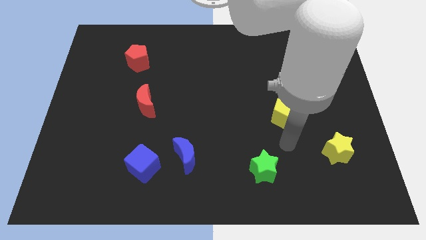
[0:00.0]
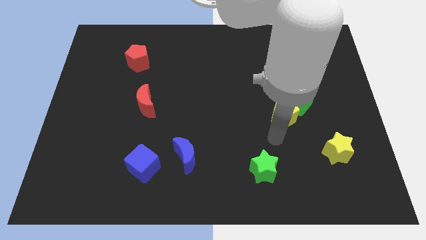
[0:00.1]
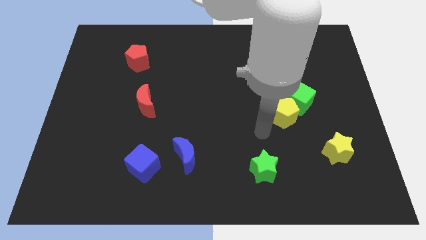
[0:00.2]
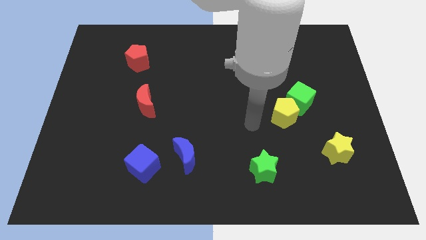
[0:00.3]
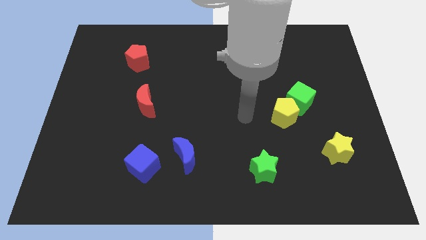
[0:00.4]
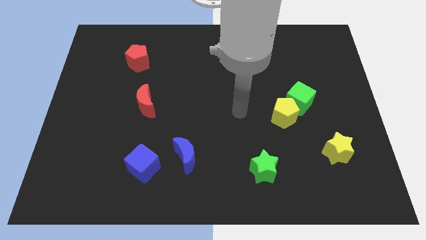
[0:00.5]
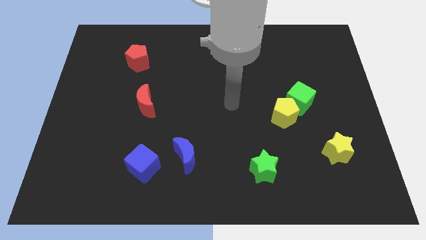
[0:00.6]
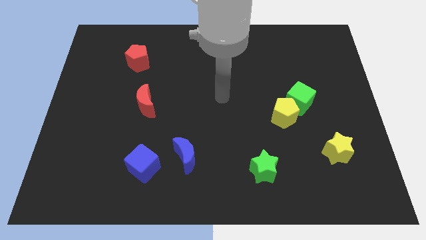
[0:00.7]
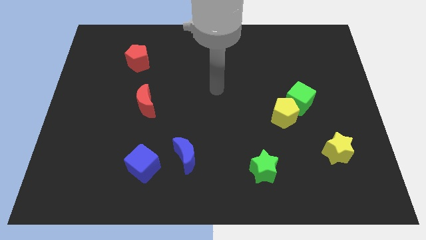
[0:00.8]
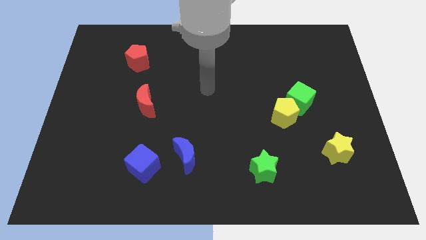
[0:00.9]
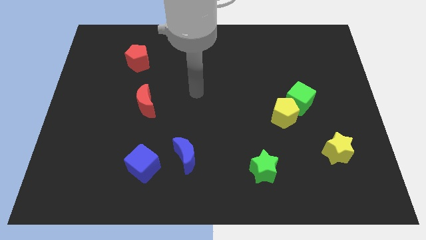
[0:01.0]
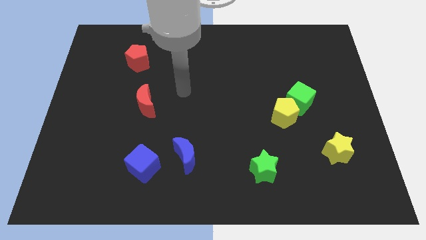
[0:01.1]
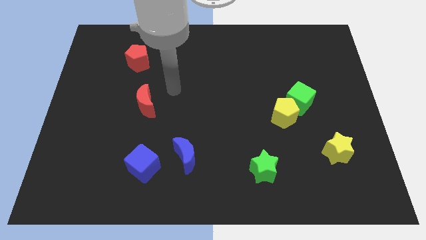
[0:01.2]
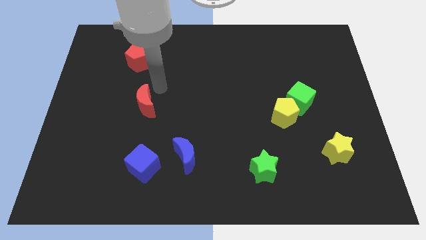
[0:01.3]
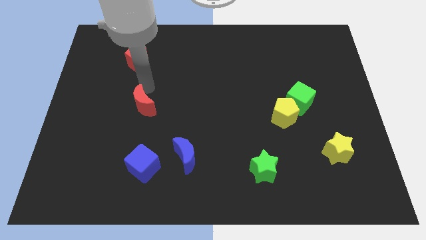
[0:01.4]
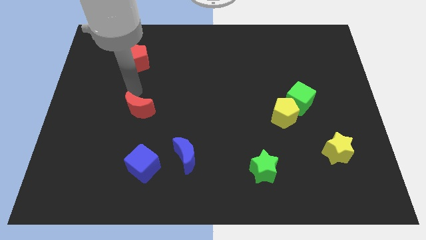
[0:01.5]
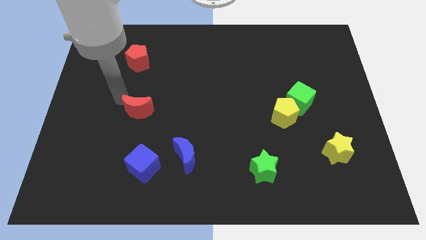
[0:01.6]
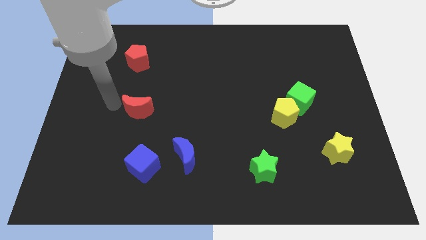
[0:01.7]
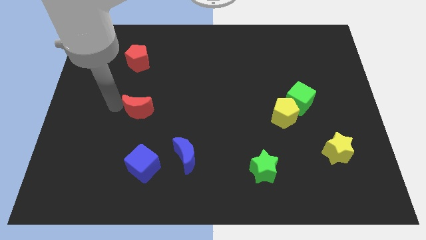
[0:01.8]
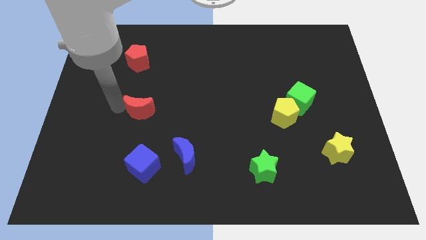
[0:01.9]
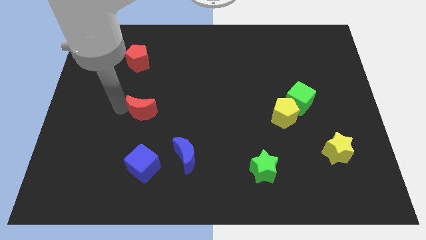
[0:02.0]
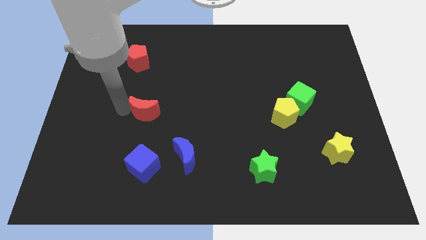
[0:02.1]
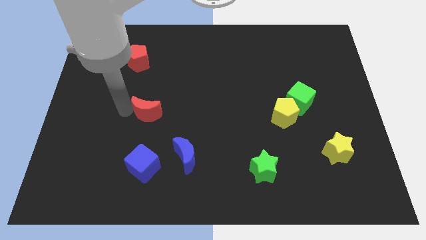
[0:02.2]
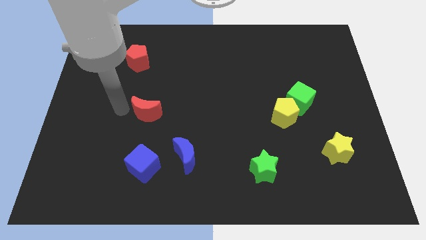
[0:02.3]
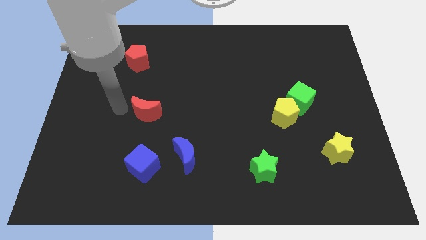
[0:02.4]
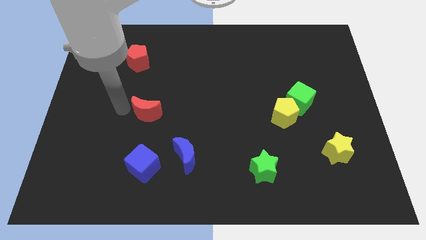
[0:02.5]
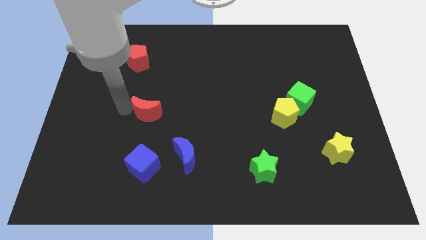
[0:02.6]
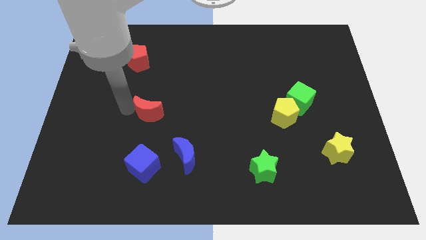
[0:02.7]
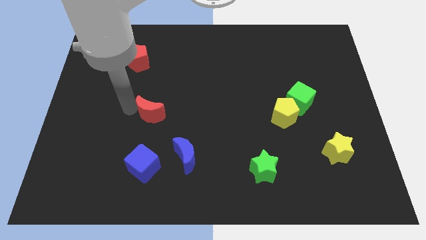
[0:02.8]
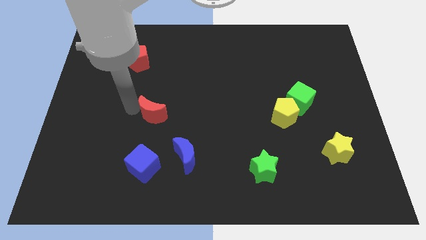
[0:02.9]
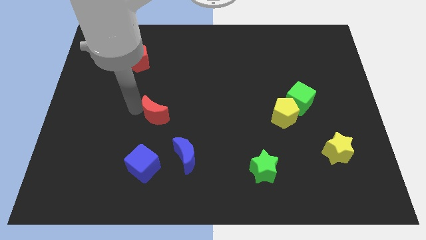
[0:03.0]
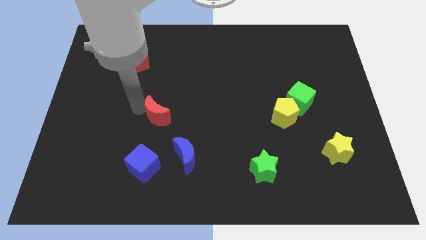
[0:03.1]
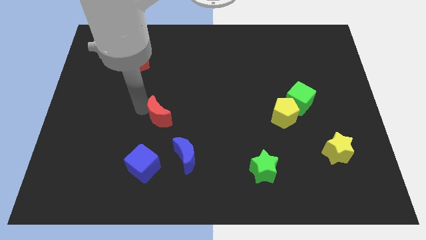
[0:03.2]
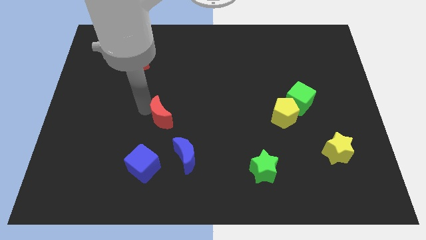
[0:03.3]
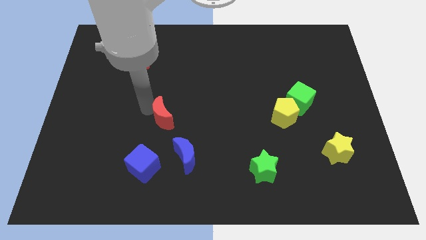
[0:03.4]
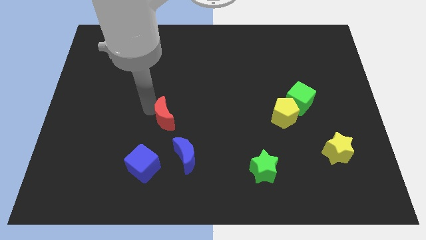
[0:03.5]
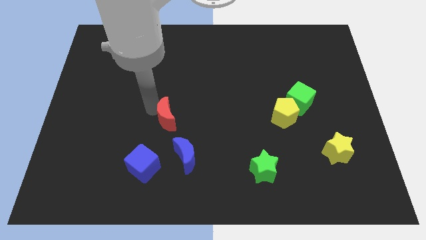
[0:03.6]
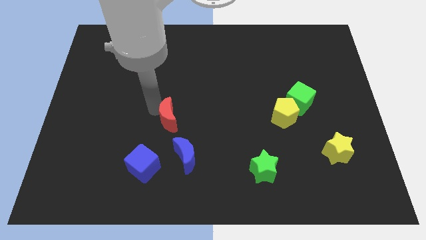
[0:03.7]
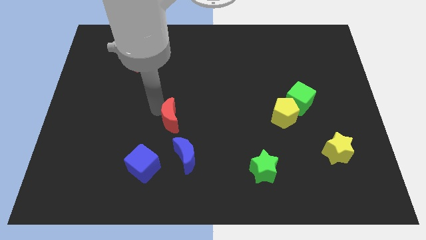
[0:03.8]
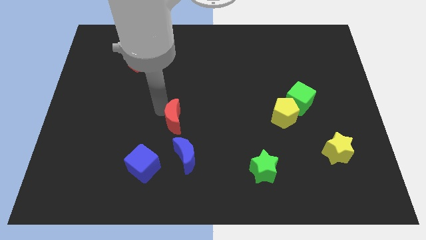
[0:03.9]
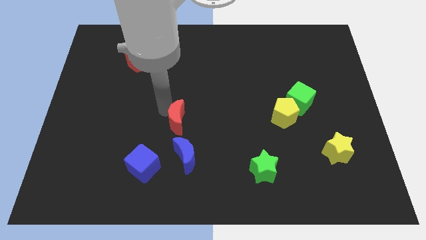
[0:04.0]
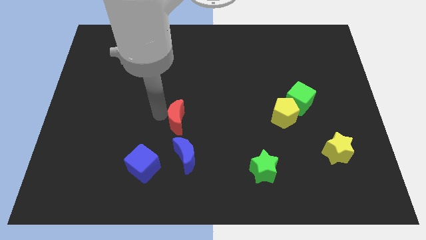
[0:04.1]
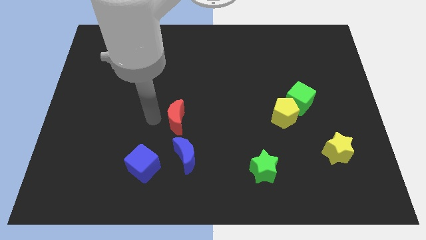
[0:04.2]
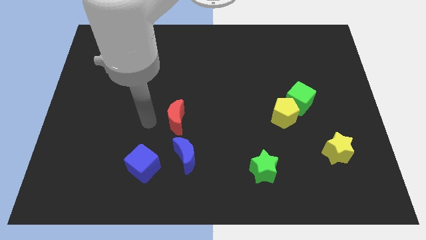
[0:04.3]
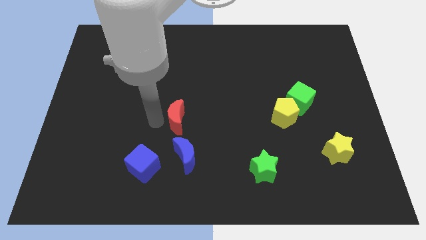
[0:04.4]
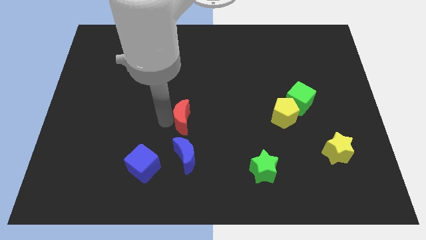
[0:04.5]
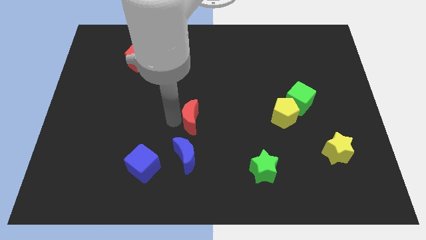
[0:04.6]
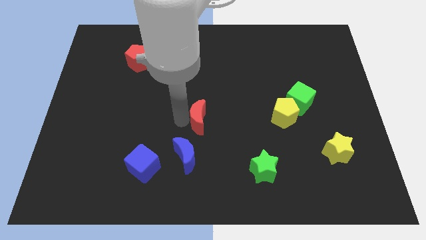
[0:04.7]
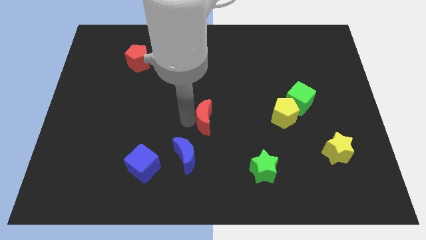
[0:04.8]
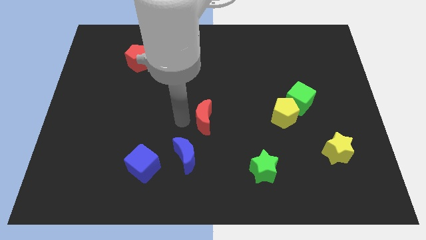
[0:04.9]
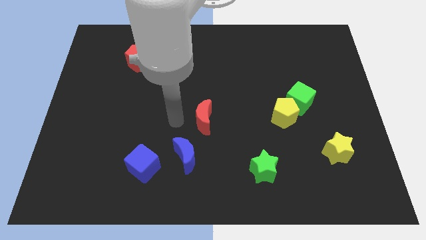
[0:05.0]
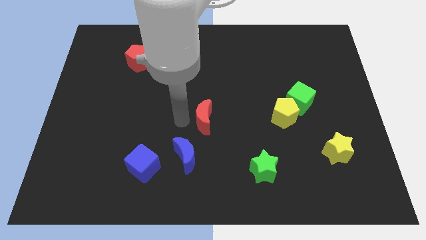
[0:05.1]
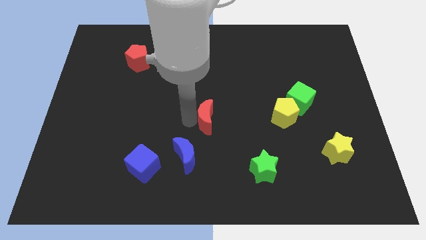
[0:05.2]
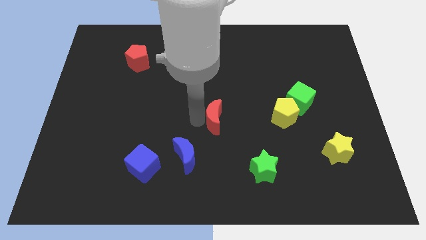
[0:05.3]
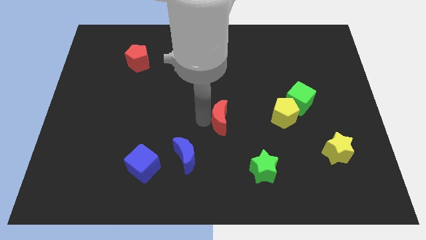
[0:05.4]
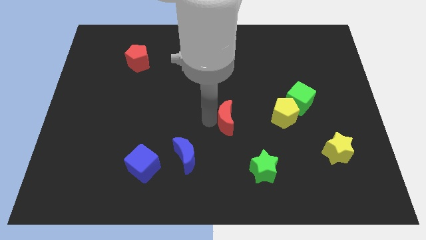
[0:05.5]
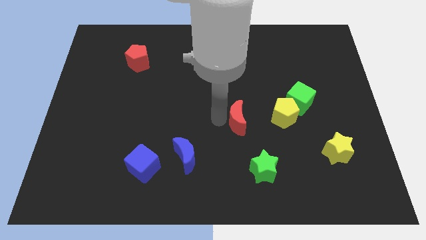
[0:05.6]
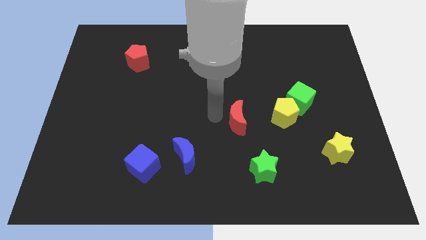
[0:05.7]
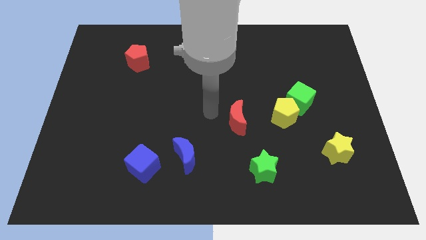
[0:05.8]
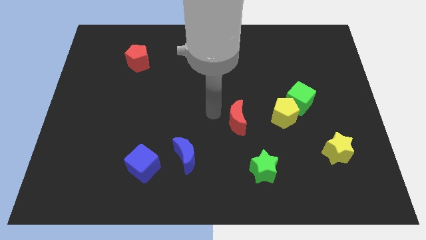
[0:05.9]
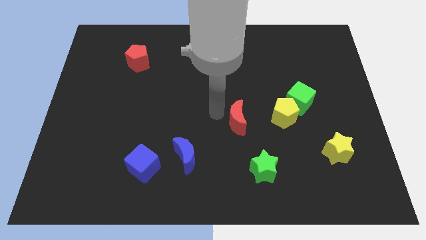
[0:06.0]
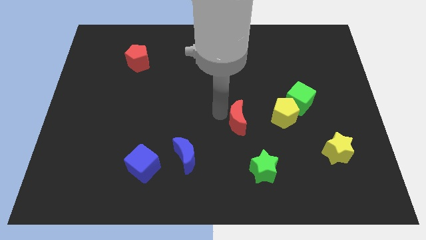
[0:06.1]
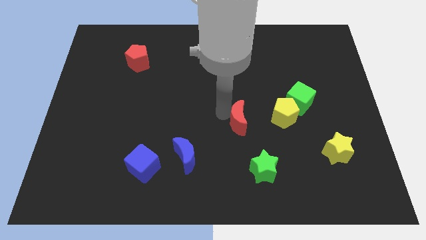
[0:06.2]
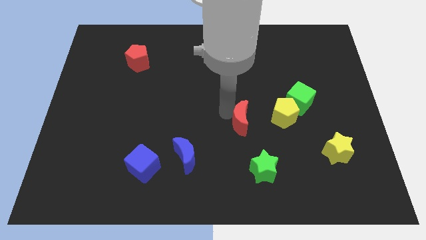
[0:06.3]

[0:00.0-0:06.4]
move the red moon to the top side of the green star

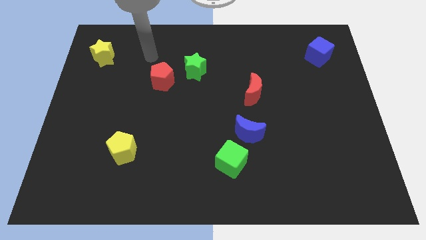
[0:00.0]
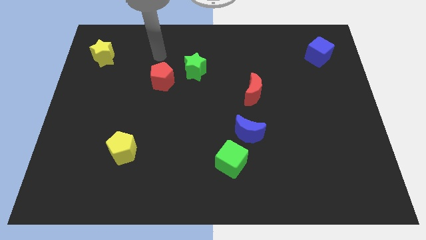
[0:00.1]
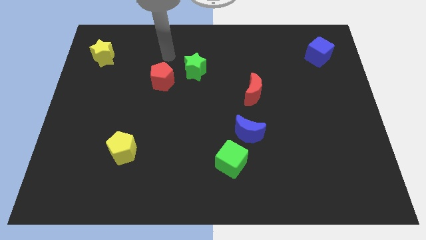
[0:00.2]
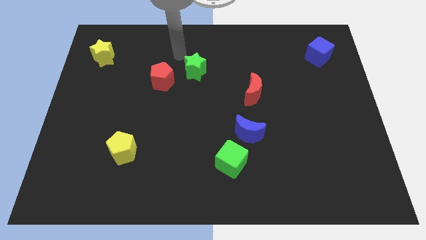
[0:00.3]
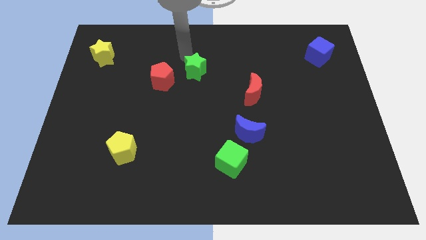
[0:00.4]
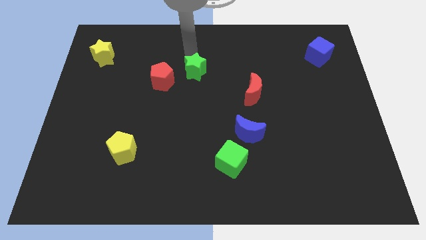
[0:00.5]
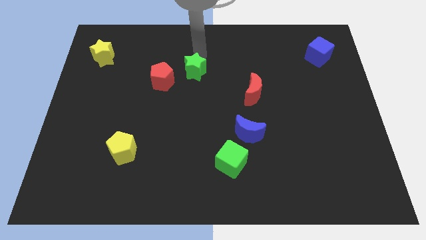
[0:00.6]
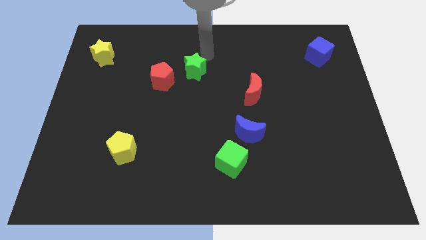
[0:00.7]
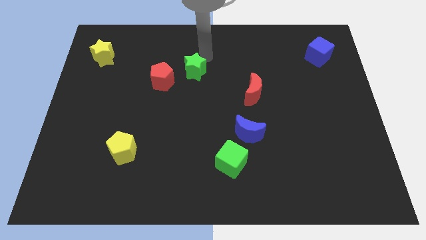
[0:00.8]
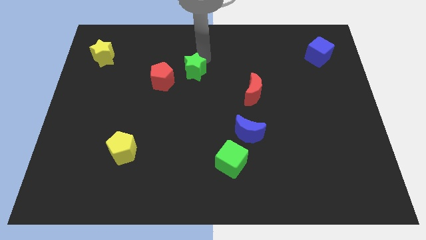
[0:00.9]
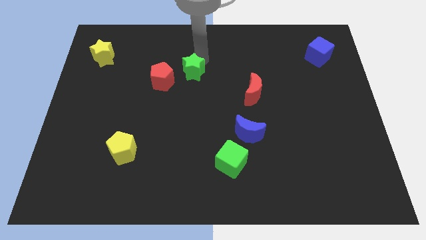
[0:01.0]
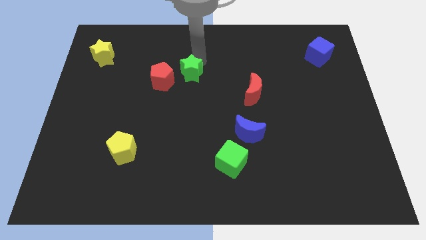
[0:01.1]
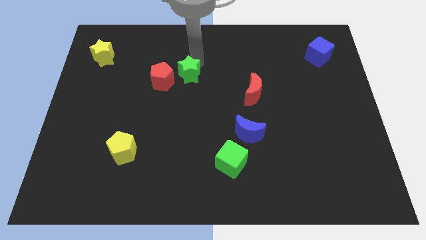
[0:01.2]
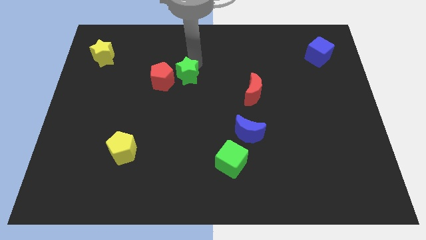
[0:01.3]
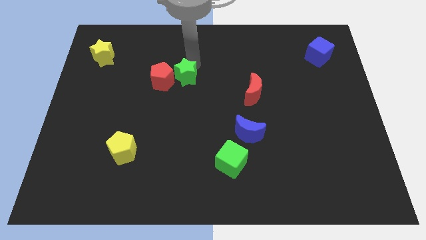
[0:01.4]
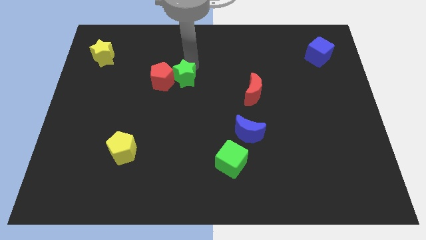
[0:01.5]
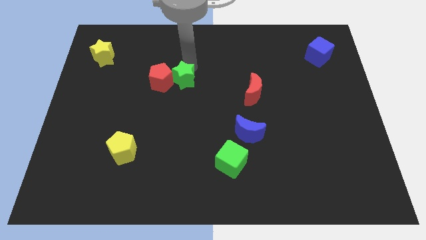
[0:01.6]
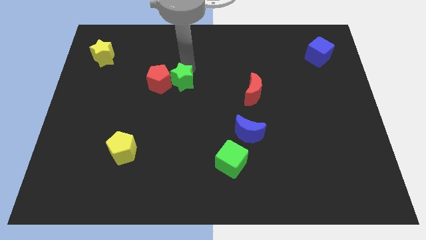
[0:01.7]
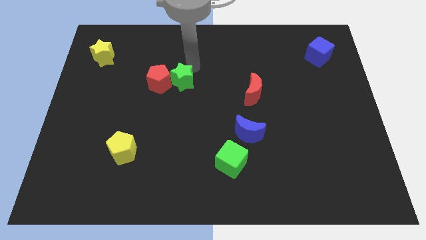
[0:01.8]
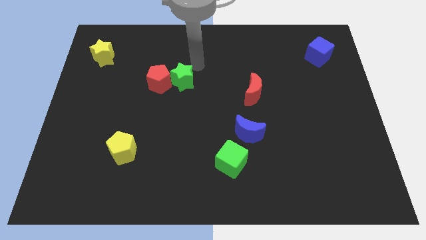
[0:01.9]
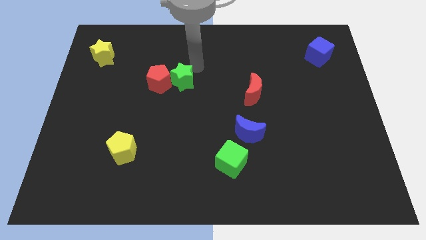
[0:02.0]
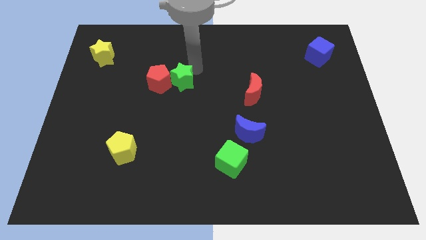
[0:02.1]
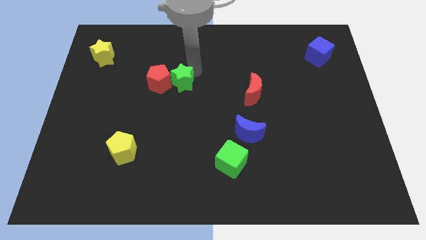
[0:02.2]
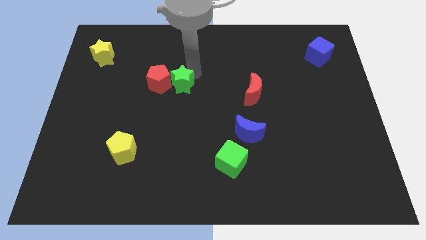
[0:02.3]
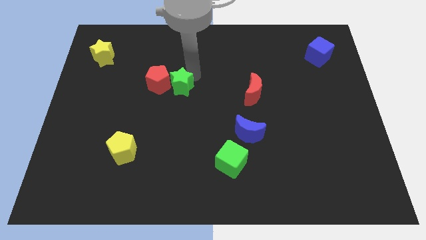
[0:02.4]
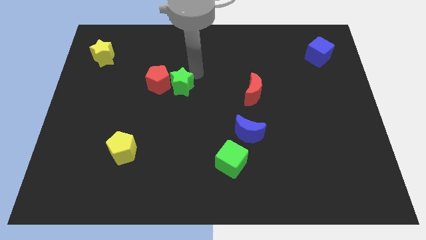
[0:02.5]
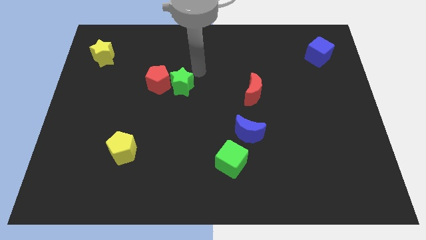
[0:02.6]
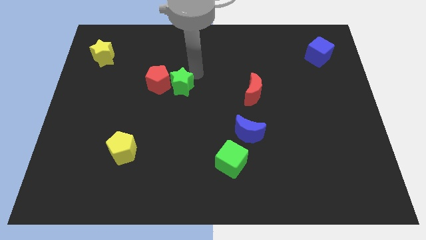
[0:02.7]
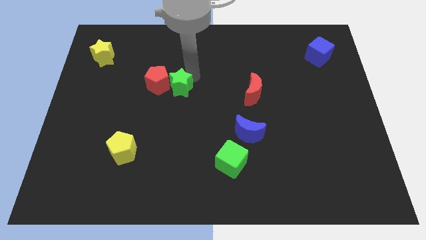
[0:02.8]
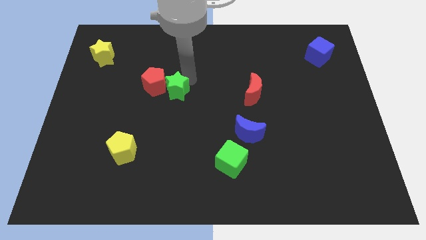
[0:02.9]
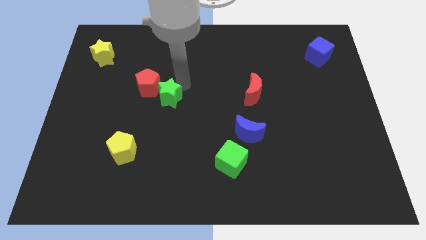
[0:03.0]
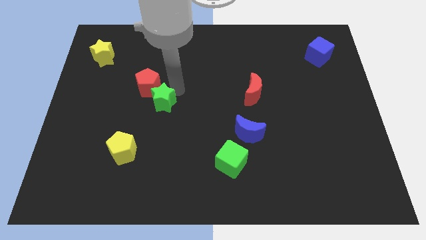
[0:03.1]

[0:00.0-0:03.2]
put the green star to the bottom of the red pentagon
